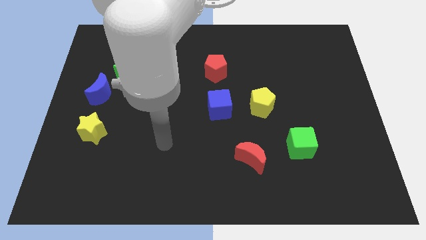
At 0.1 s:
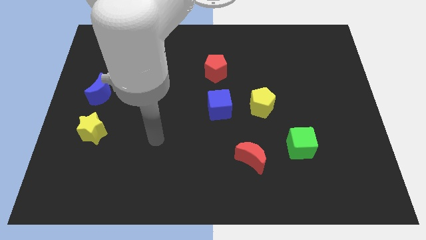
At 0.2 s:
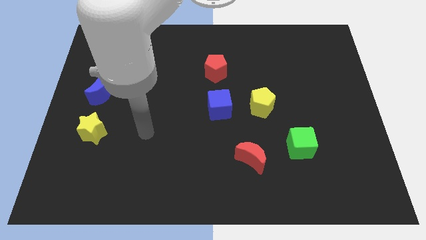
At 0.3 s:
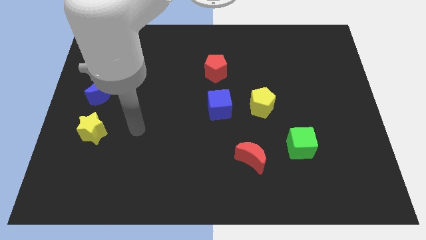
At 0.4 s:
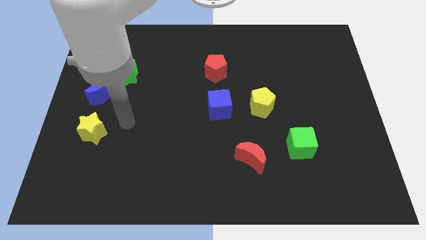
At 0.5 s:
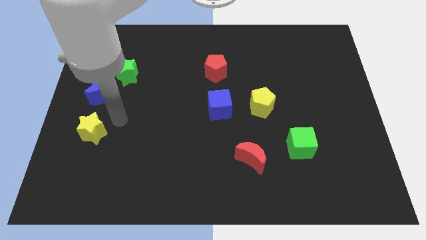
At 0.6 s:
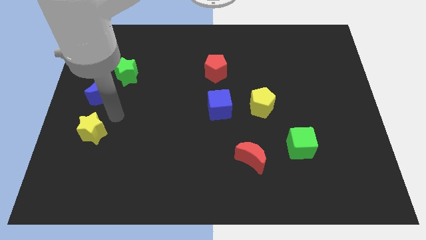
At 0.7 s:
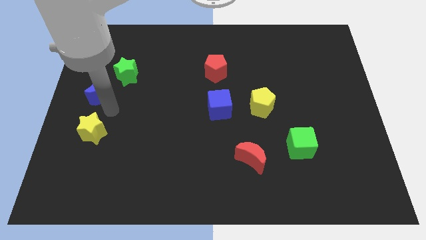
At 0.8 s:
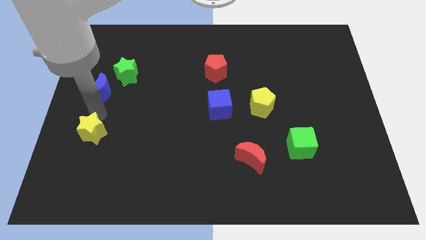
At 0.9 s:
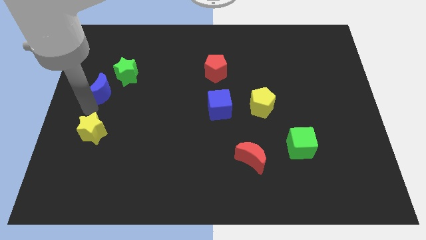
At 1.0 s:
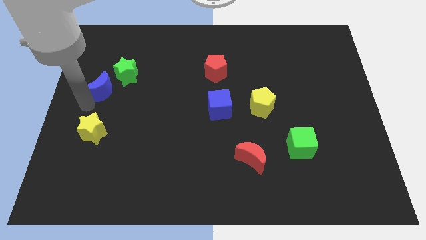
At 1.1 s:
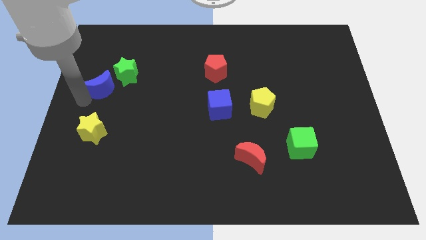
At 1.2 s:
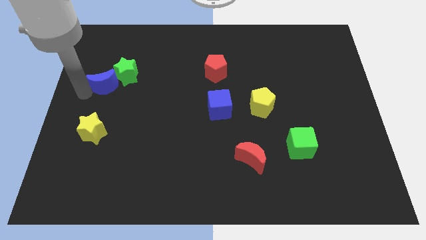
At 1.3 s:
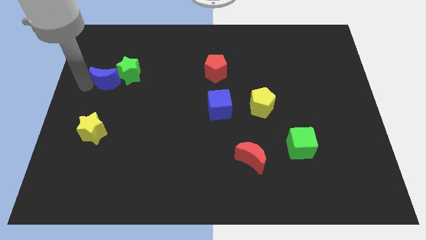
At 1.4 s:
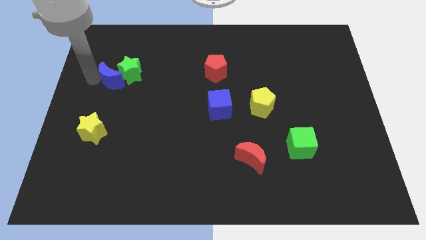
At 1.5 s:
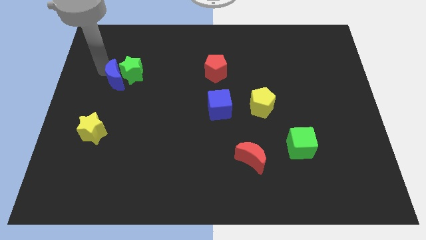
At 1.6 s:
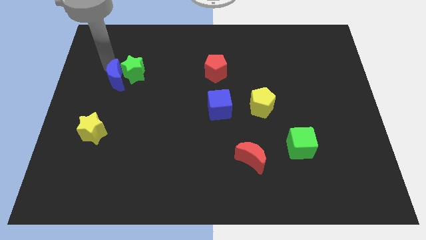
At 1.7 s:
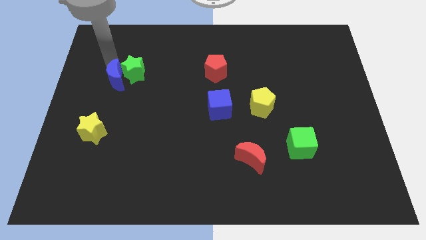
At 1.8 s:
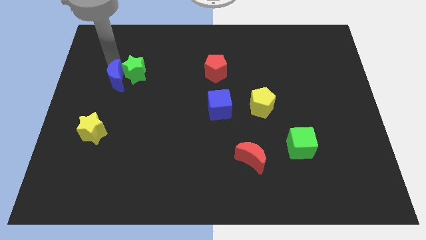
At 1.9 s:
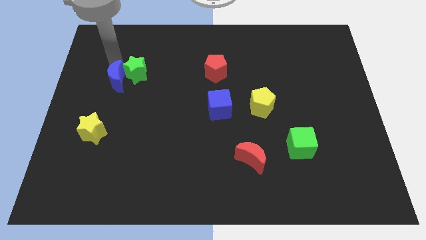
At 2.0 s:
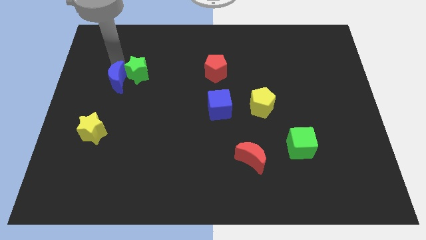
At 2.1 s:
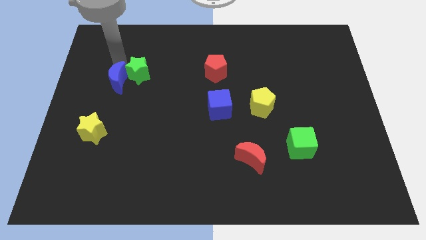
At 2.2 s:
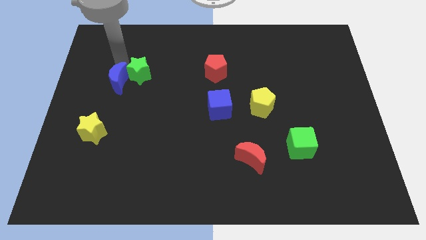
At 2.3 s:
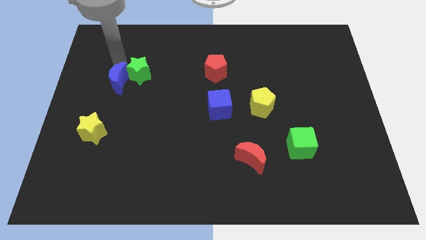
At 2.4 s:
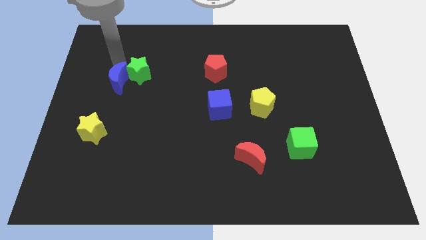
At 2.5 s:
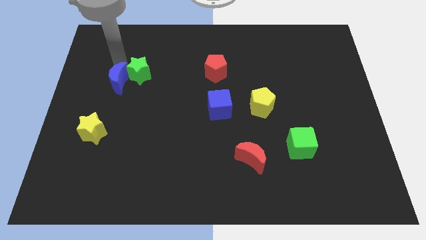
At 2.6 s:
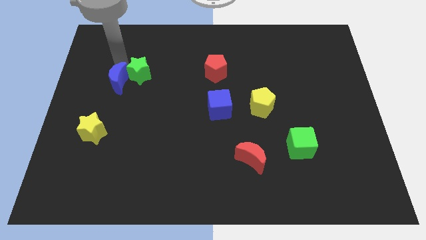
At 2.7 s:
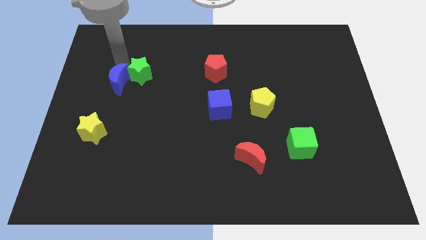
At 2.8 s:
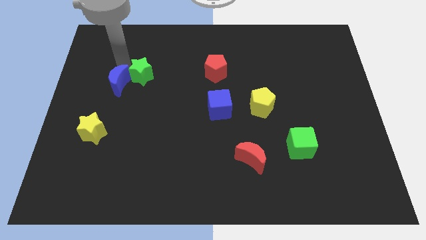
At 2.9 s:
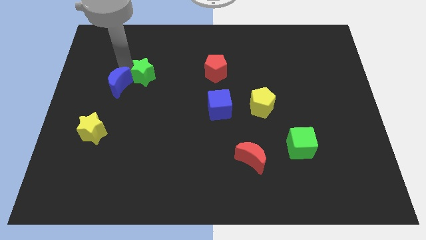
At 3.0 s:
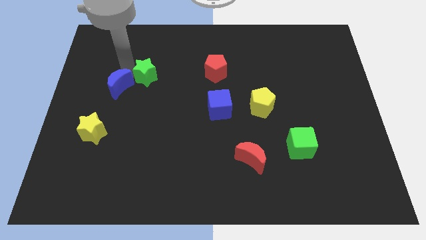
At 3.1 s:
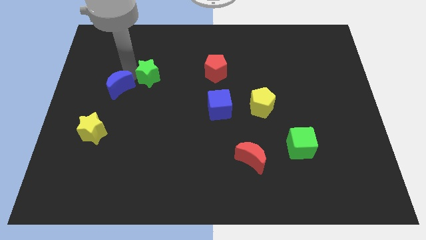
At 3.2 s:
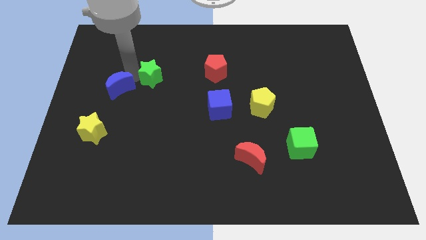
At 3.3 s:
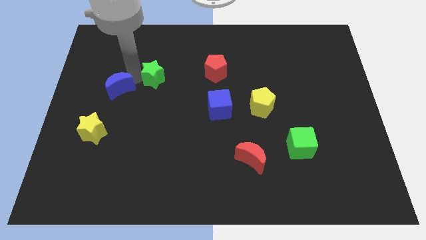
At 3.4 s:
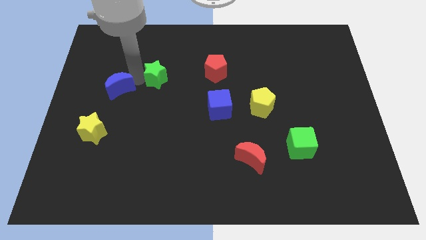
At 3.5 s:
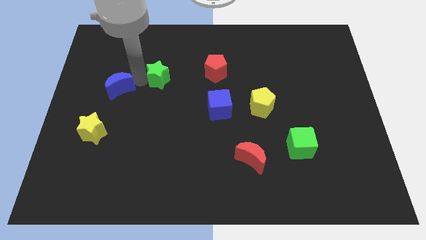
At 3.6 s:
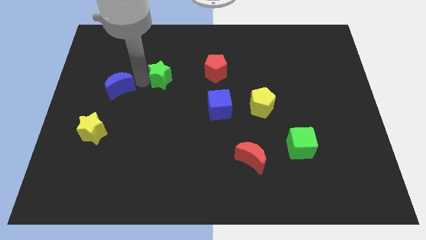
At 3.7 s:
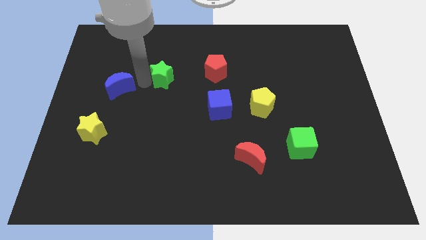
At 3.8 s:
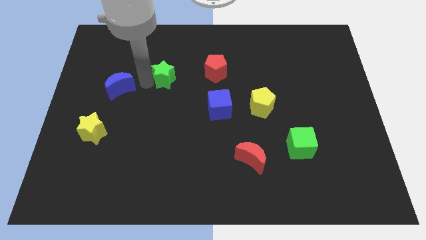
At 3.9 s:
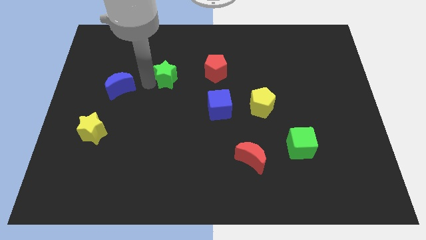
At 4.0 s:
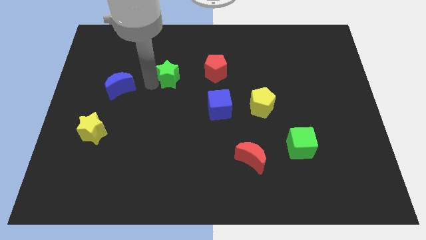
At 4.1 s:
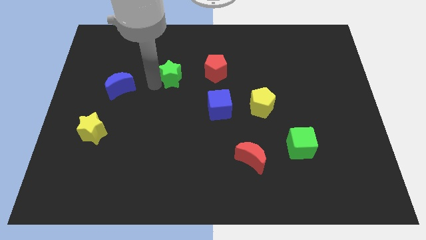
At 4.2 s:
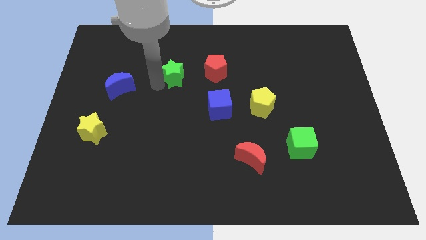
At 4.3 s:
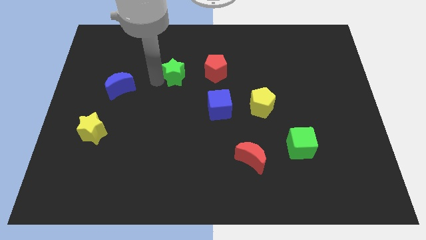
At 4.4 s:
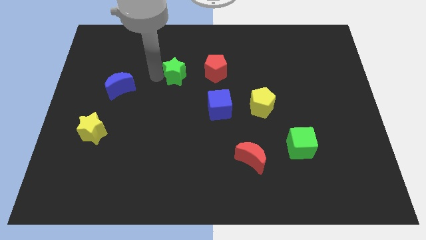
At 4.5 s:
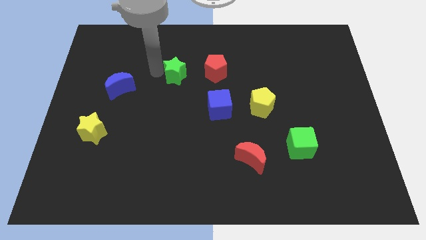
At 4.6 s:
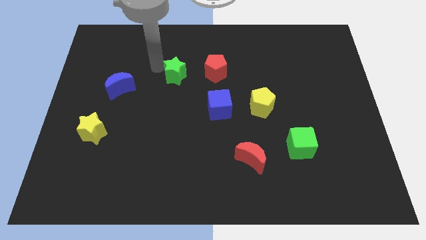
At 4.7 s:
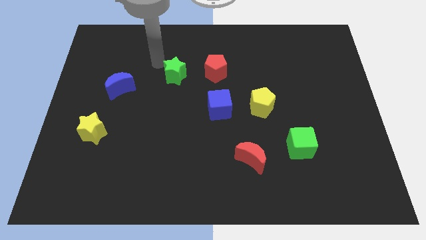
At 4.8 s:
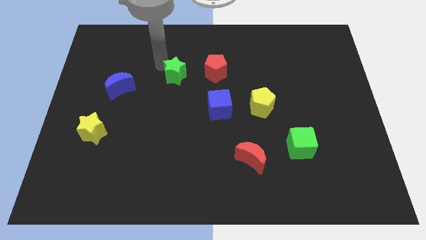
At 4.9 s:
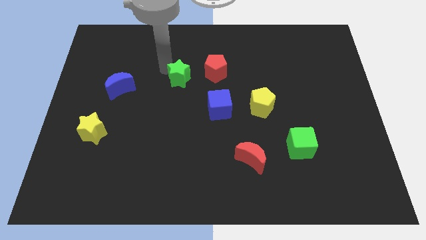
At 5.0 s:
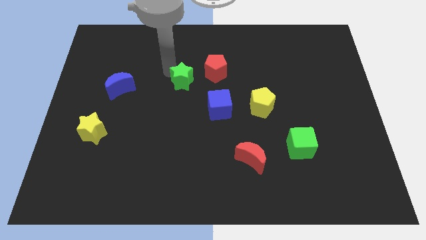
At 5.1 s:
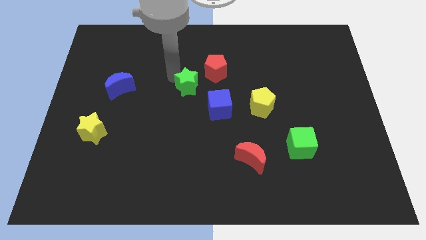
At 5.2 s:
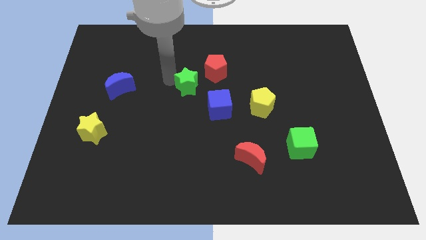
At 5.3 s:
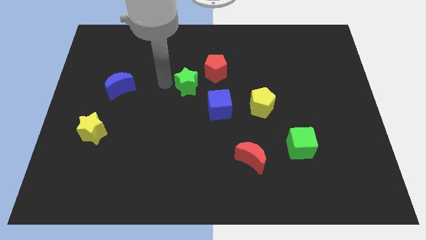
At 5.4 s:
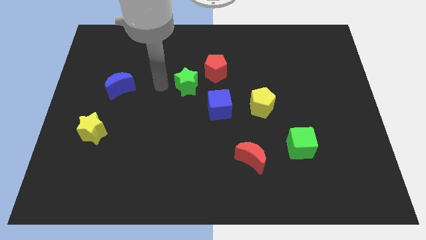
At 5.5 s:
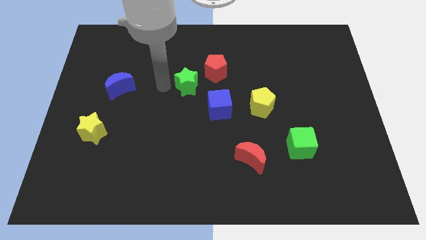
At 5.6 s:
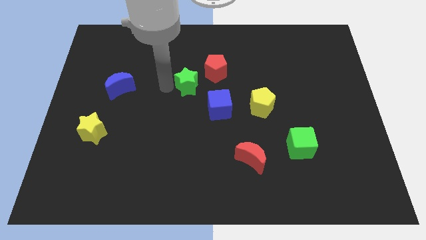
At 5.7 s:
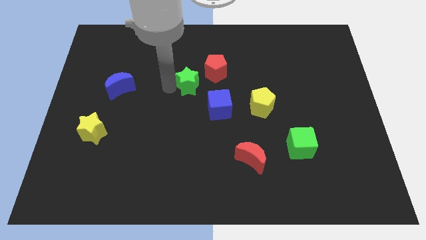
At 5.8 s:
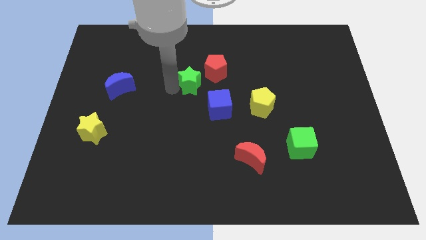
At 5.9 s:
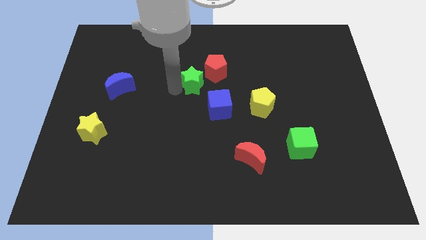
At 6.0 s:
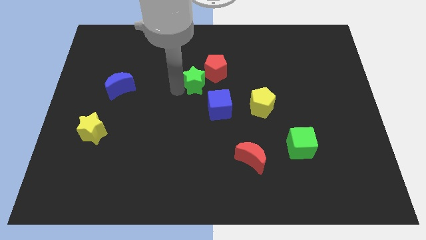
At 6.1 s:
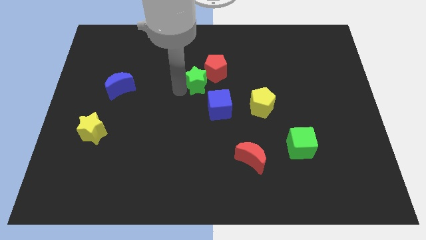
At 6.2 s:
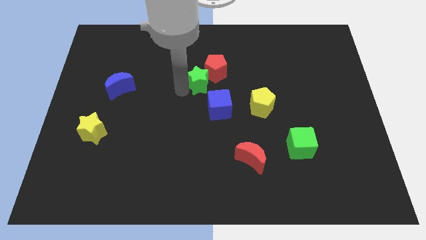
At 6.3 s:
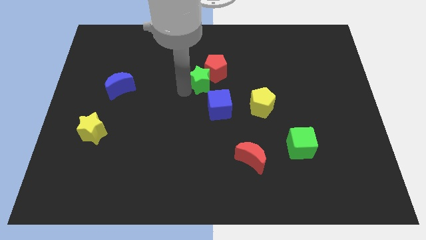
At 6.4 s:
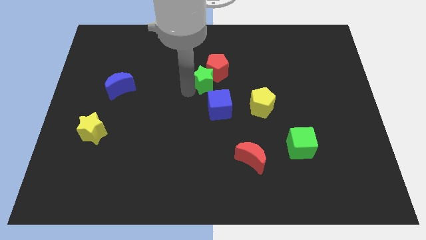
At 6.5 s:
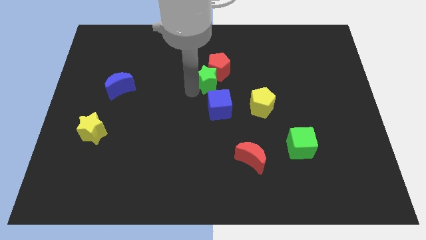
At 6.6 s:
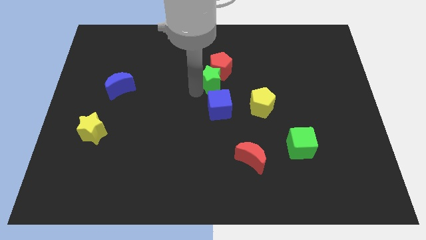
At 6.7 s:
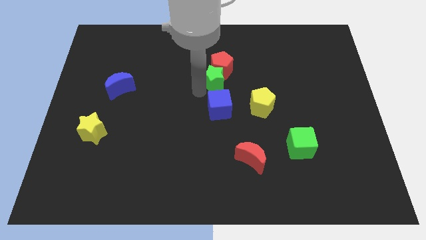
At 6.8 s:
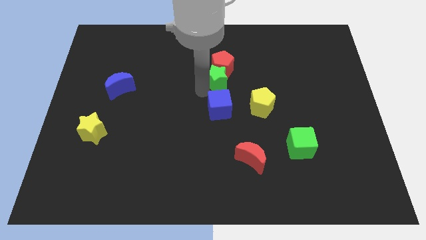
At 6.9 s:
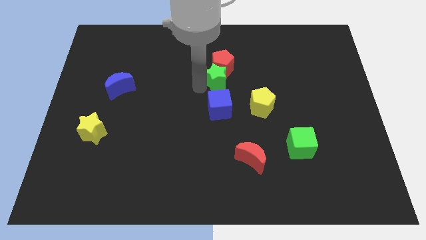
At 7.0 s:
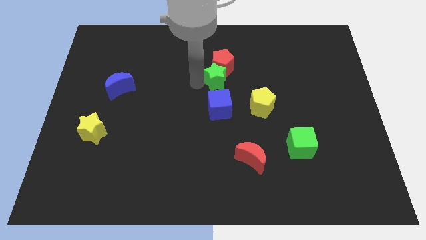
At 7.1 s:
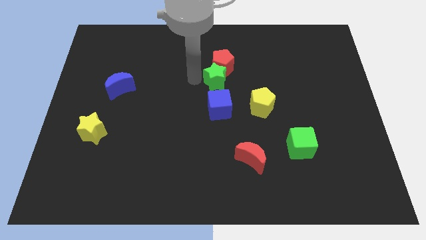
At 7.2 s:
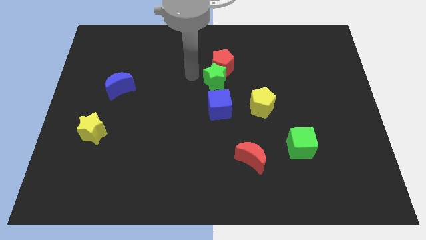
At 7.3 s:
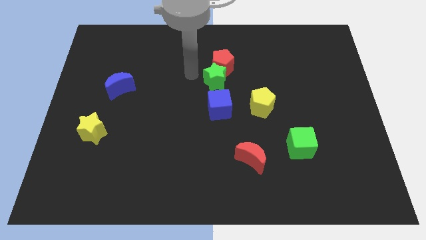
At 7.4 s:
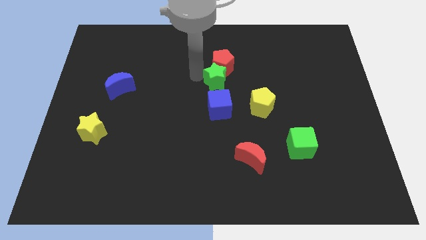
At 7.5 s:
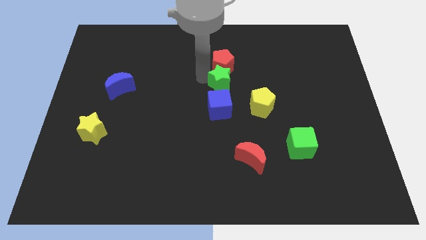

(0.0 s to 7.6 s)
push the green star diagonally up and to the left of the yellow pentagon
